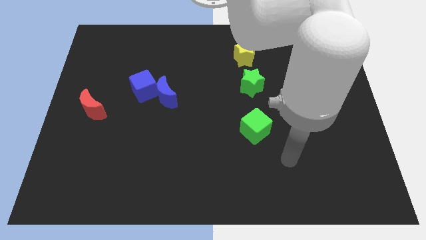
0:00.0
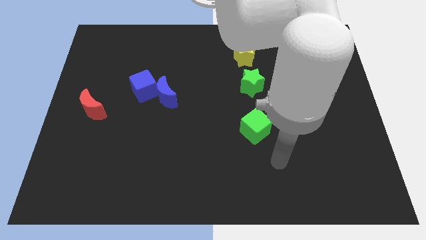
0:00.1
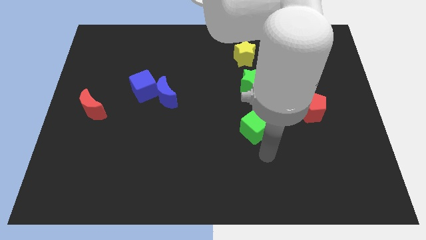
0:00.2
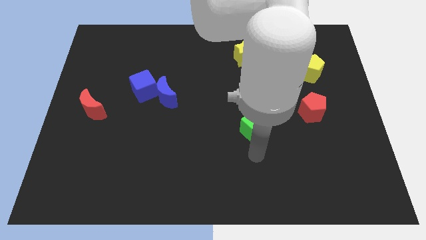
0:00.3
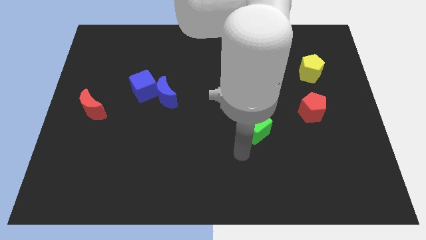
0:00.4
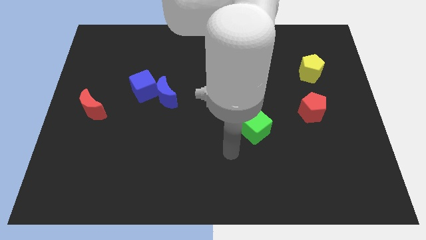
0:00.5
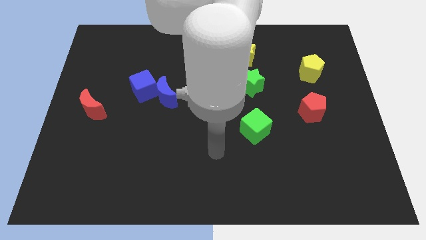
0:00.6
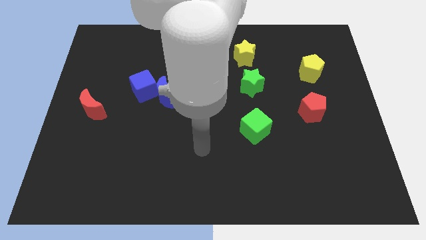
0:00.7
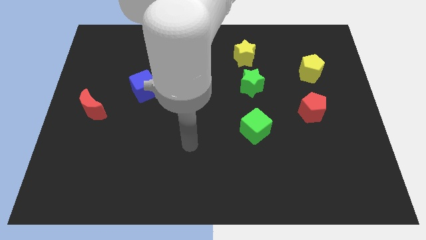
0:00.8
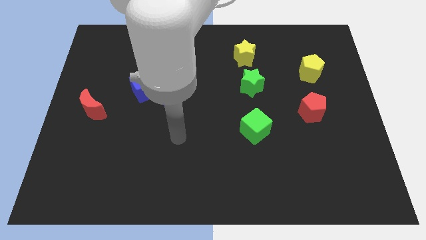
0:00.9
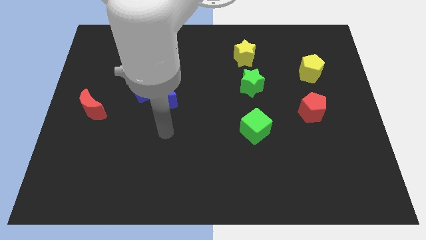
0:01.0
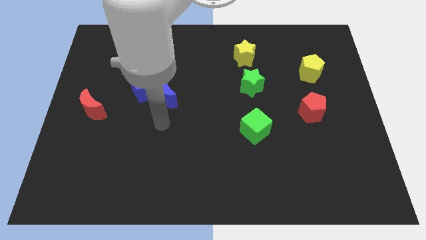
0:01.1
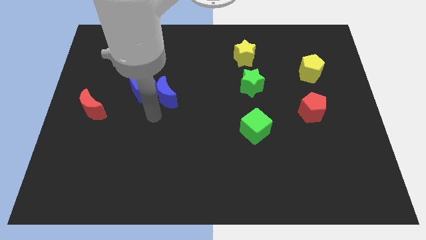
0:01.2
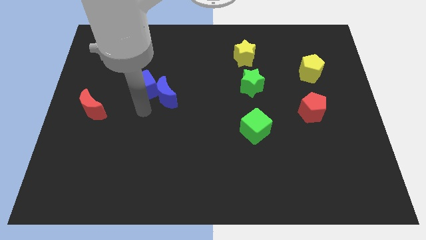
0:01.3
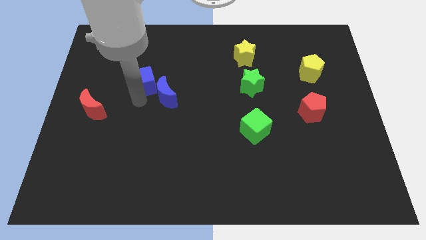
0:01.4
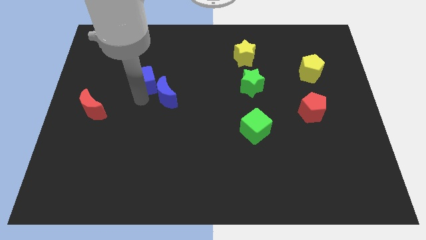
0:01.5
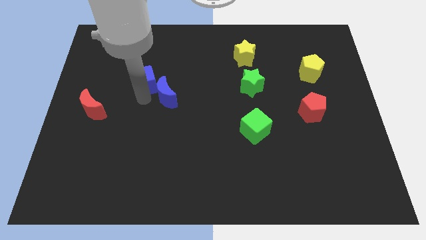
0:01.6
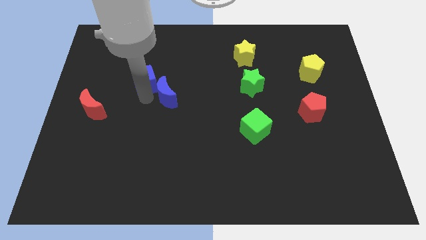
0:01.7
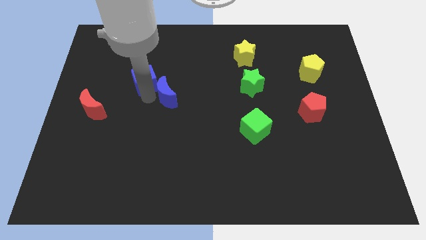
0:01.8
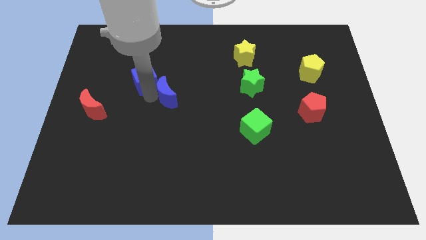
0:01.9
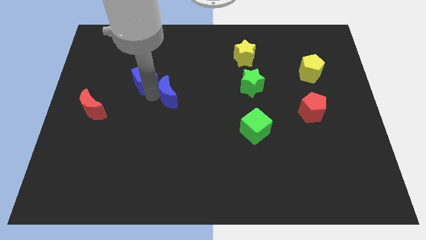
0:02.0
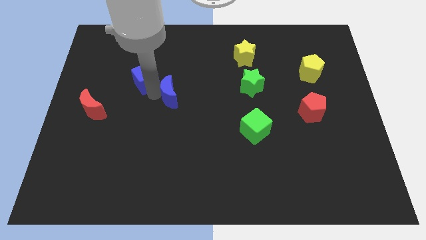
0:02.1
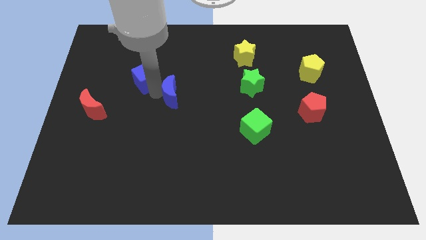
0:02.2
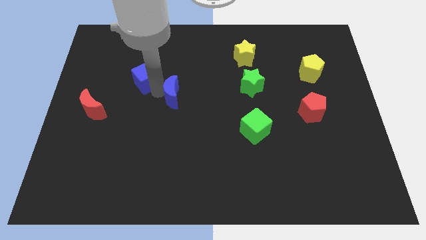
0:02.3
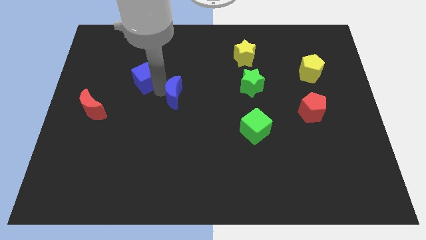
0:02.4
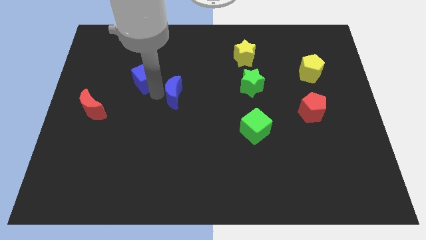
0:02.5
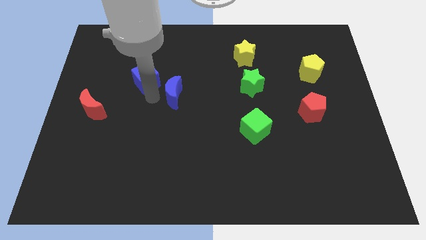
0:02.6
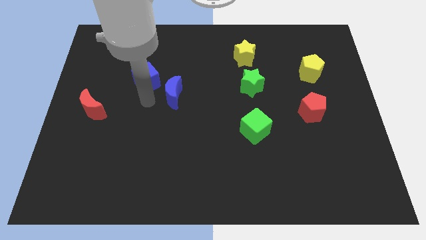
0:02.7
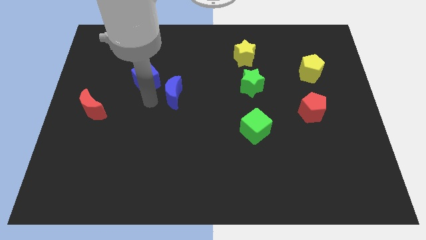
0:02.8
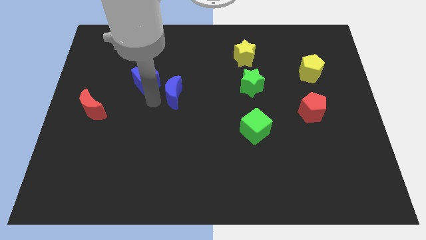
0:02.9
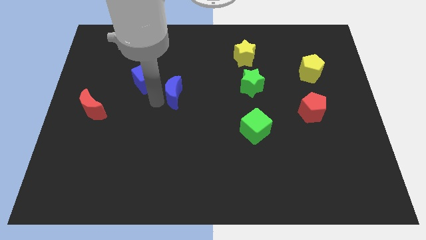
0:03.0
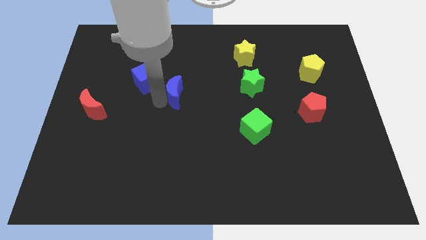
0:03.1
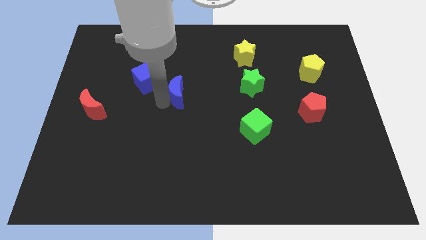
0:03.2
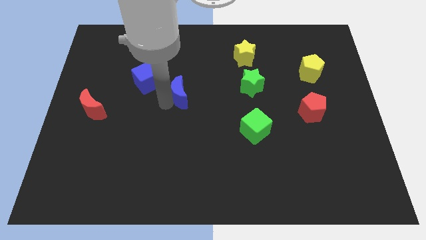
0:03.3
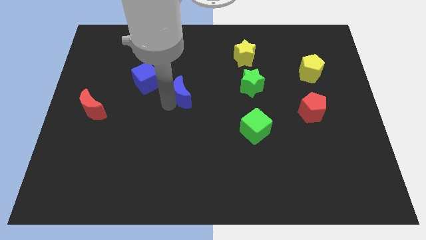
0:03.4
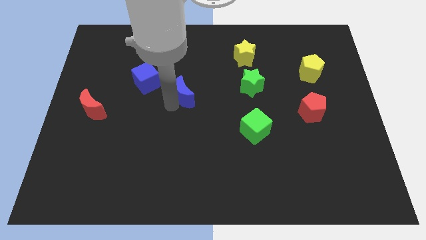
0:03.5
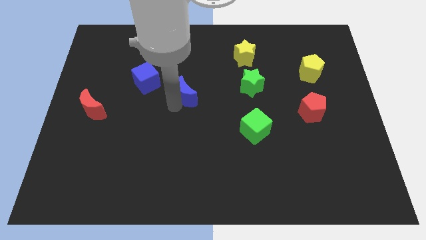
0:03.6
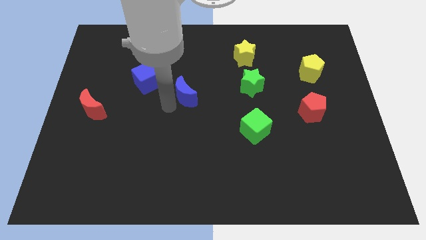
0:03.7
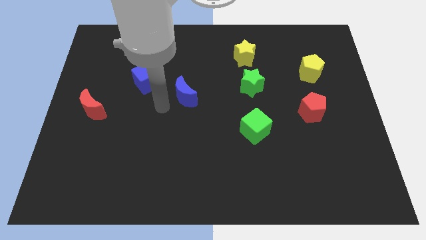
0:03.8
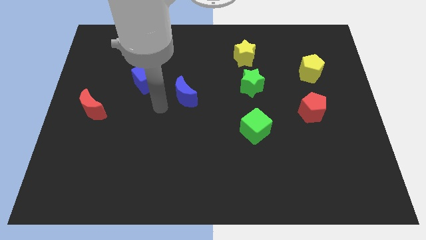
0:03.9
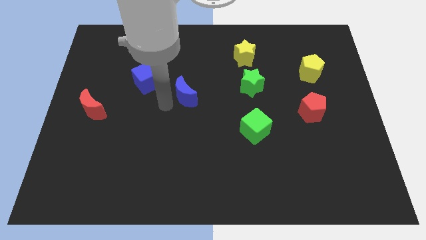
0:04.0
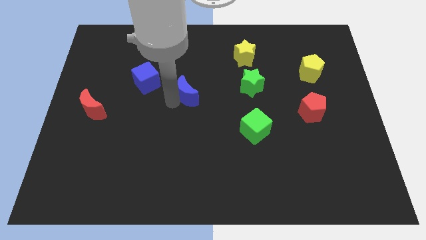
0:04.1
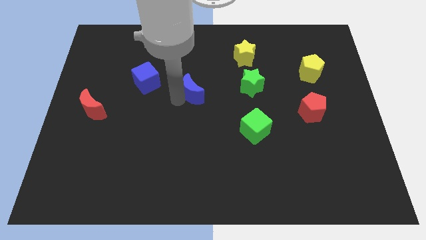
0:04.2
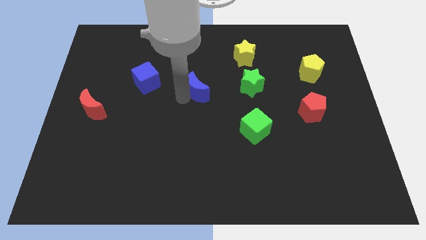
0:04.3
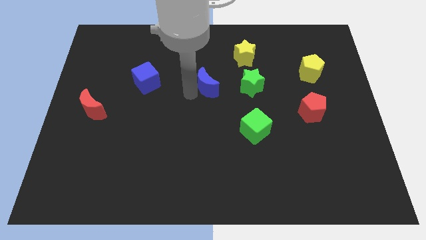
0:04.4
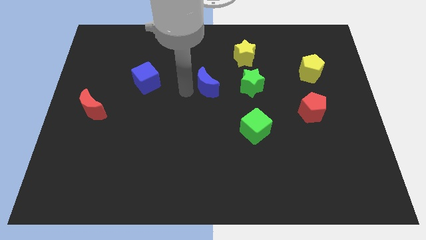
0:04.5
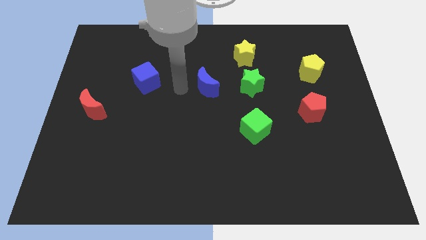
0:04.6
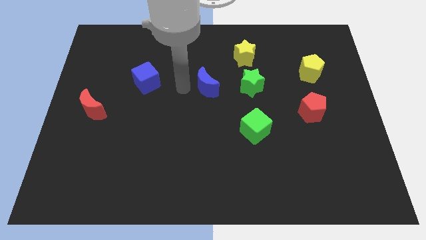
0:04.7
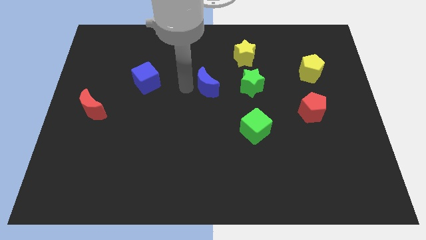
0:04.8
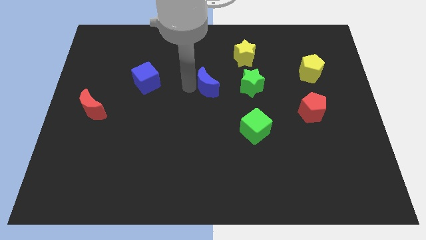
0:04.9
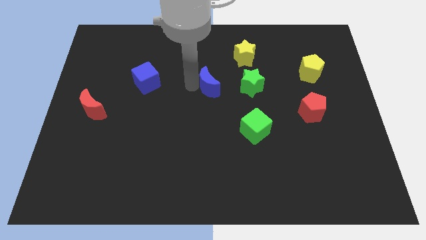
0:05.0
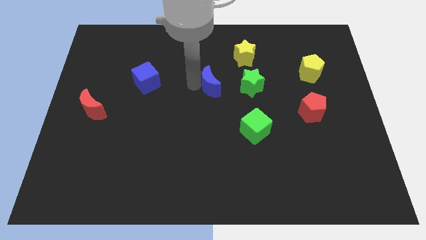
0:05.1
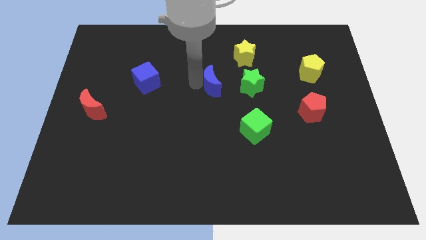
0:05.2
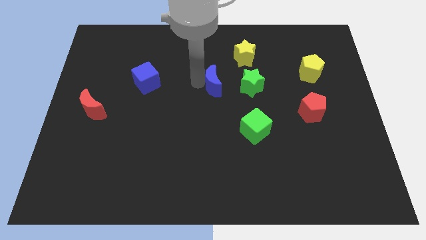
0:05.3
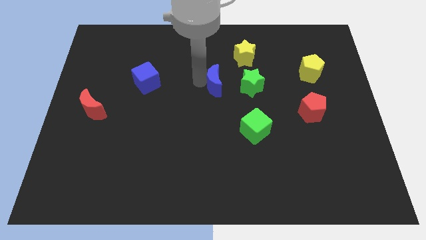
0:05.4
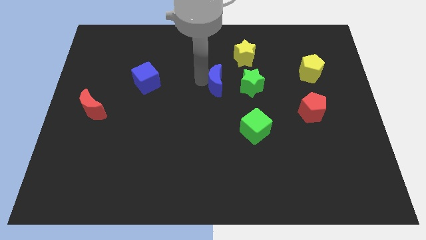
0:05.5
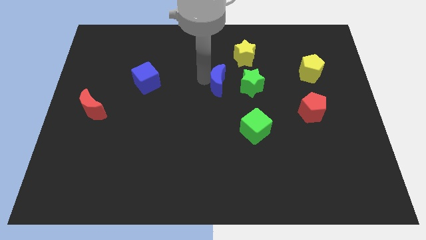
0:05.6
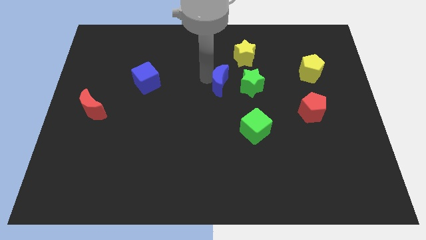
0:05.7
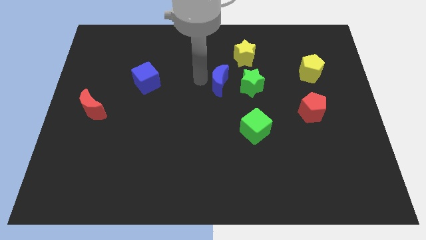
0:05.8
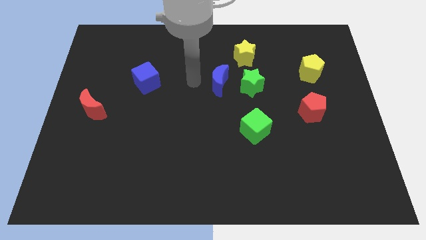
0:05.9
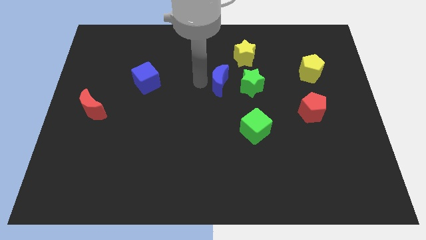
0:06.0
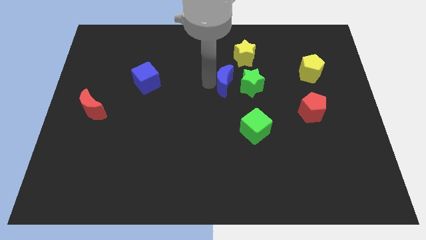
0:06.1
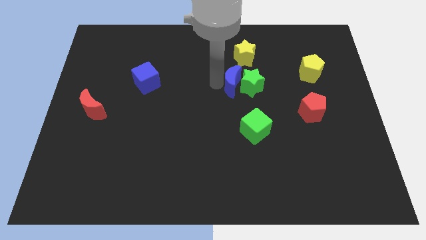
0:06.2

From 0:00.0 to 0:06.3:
put the blue moon towards the green star

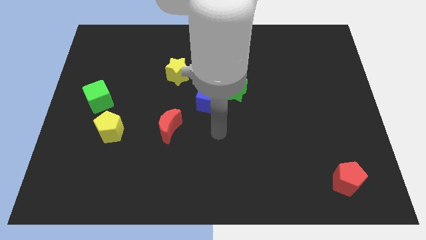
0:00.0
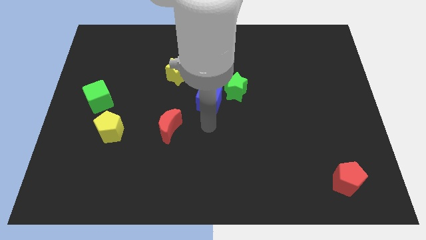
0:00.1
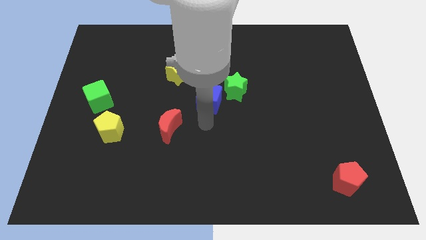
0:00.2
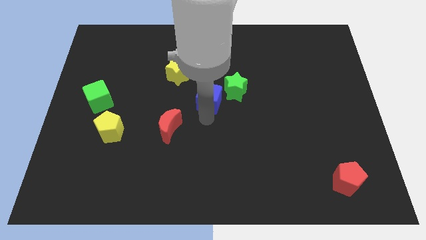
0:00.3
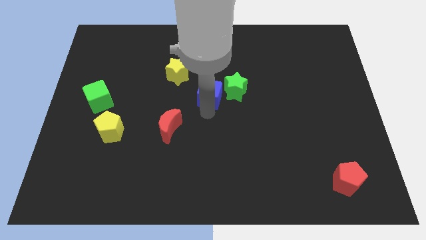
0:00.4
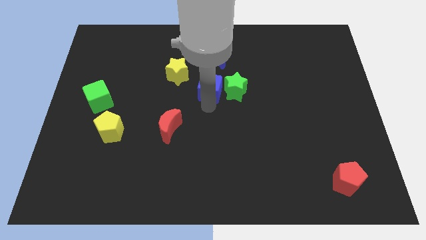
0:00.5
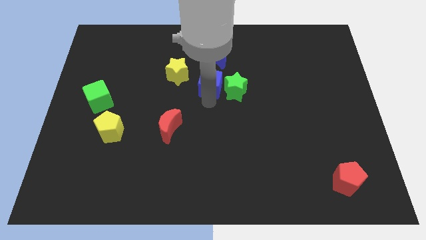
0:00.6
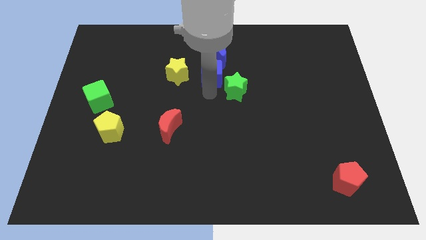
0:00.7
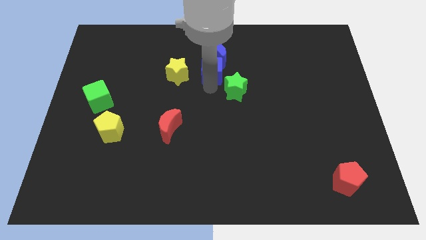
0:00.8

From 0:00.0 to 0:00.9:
slide the blue cube towards the blue moon

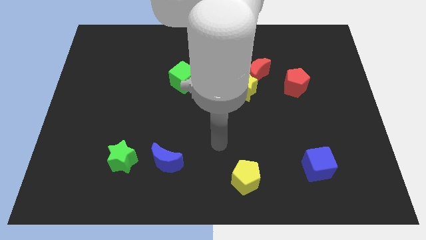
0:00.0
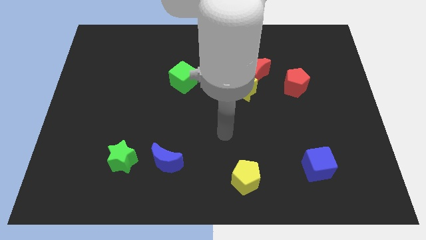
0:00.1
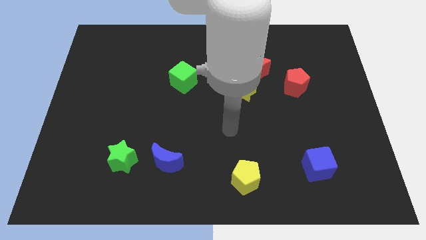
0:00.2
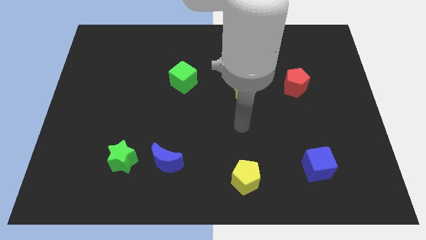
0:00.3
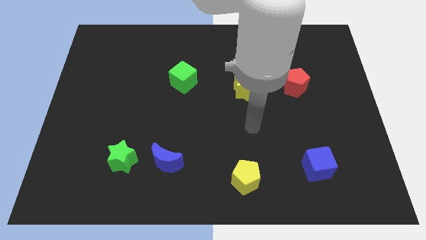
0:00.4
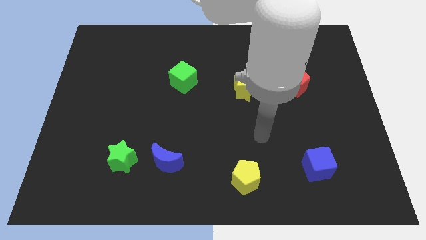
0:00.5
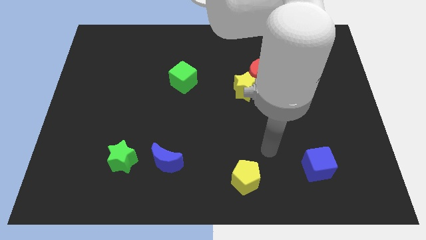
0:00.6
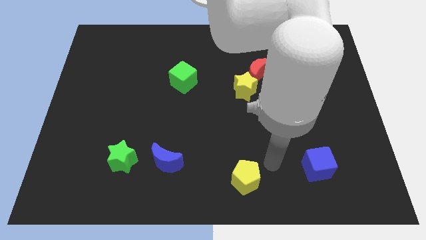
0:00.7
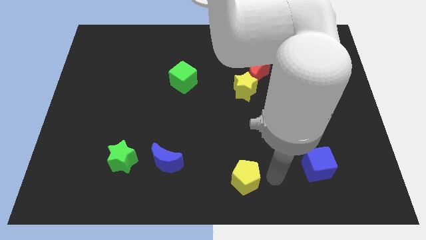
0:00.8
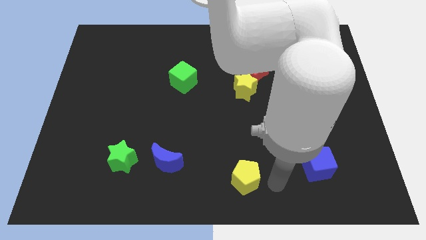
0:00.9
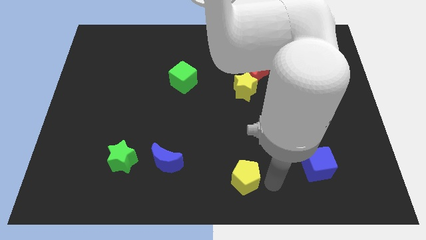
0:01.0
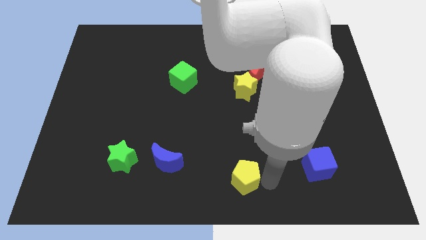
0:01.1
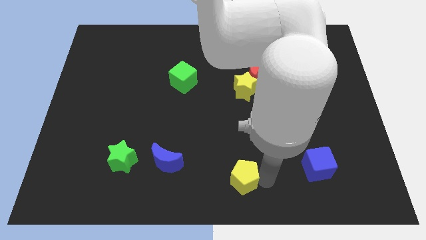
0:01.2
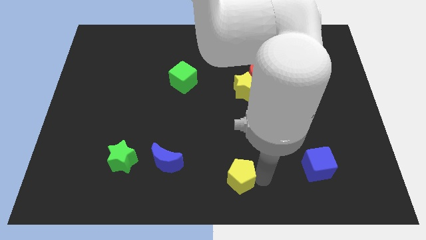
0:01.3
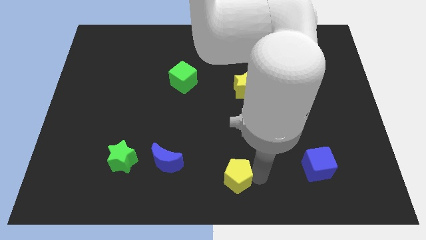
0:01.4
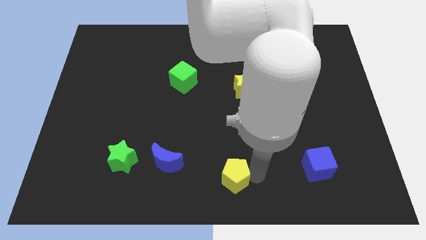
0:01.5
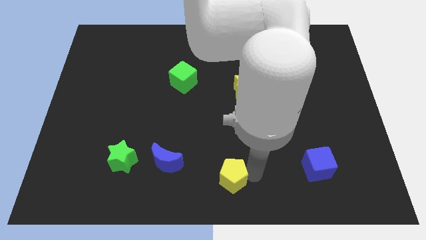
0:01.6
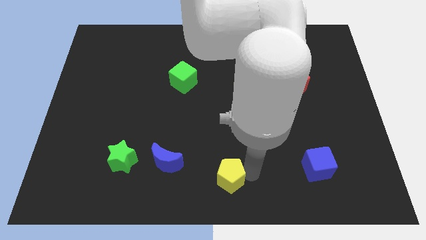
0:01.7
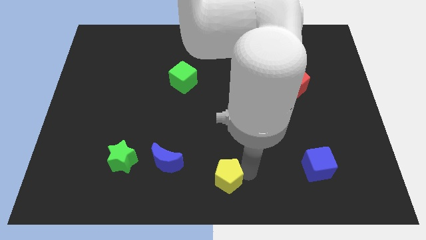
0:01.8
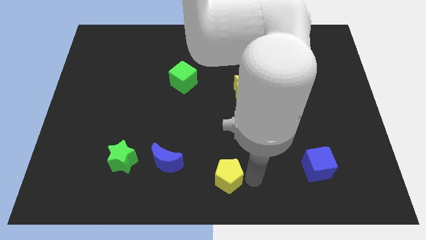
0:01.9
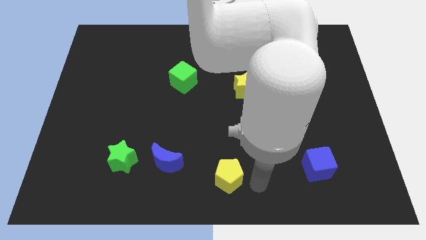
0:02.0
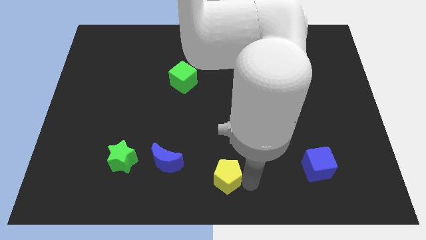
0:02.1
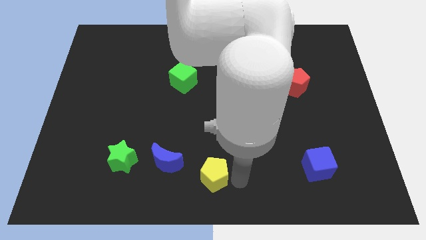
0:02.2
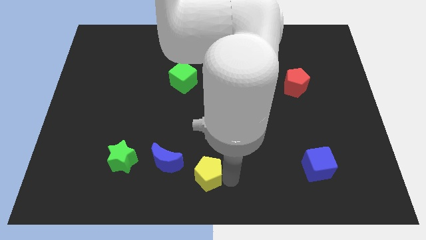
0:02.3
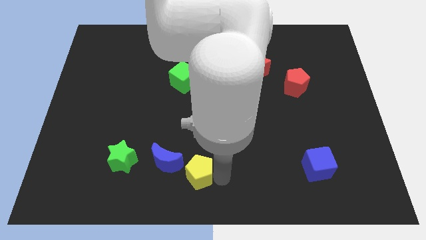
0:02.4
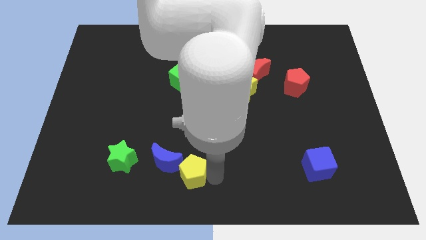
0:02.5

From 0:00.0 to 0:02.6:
push the yellow pentagon towards the blue moon
